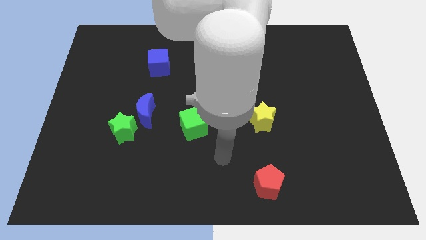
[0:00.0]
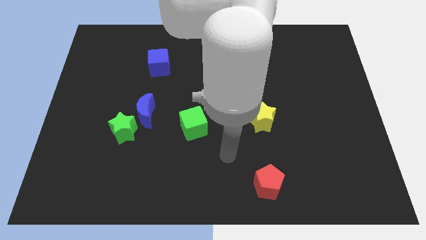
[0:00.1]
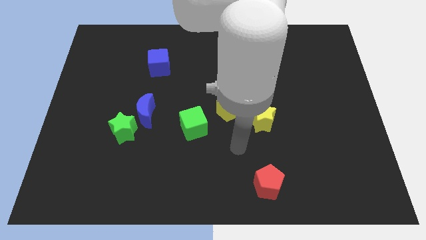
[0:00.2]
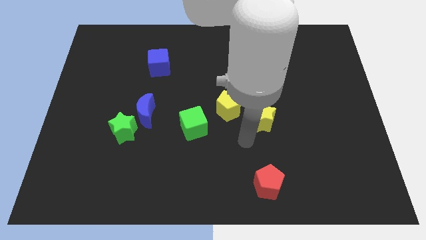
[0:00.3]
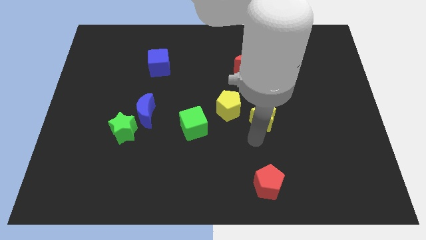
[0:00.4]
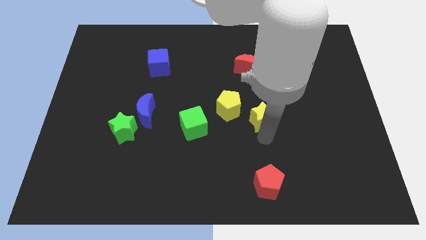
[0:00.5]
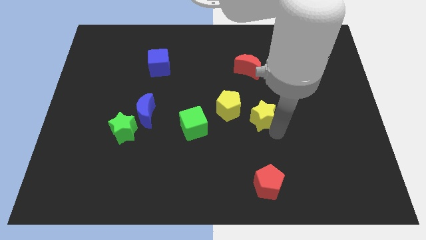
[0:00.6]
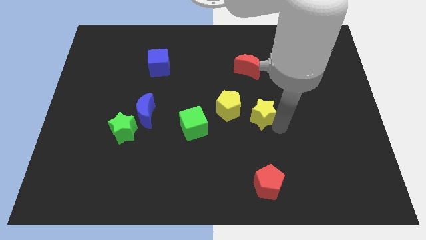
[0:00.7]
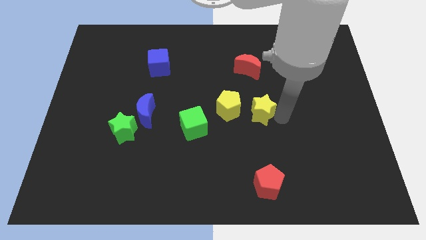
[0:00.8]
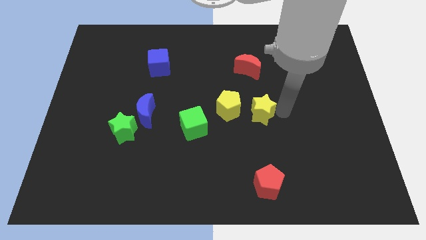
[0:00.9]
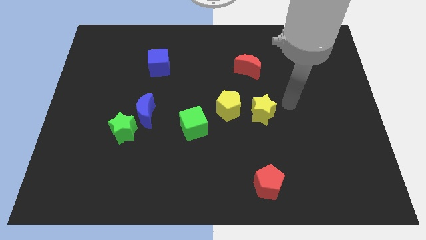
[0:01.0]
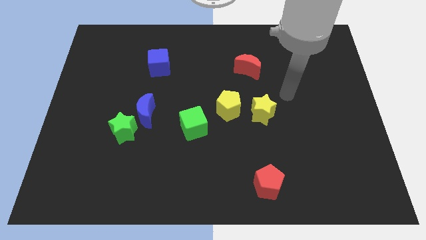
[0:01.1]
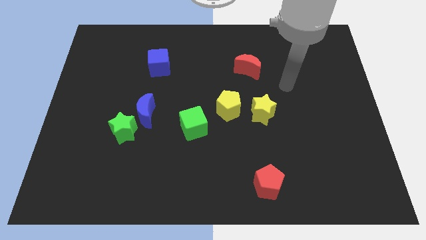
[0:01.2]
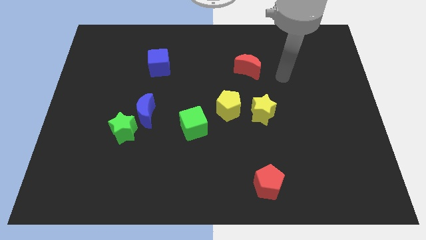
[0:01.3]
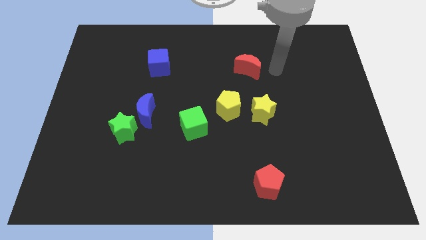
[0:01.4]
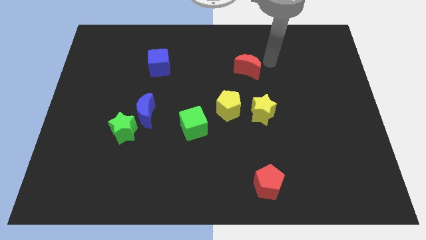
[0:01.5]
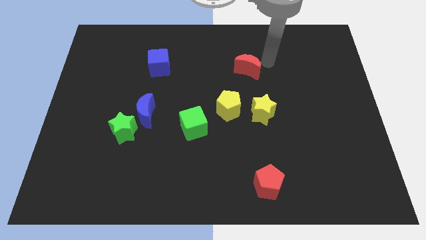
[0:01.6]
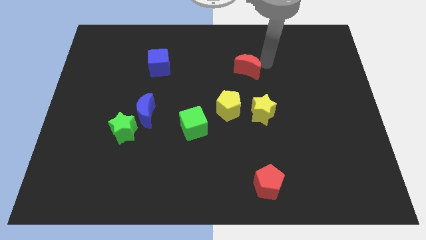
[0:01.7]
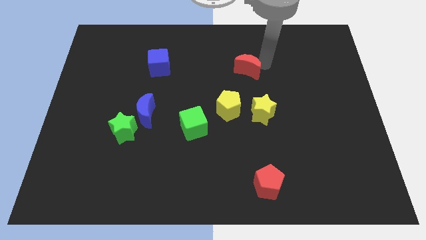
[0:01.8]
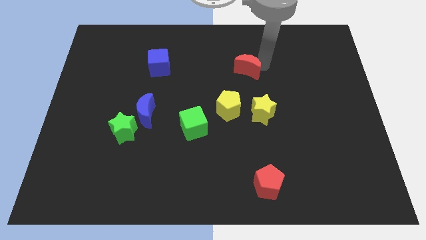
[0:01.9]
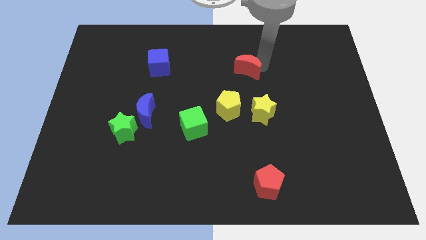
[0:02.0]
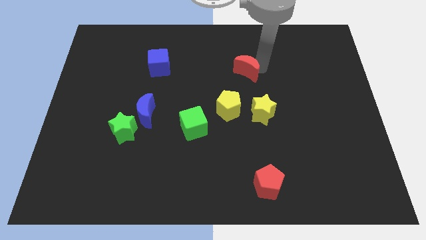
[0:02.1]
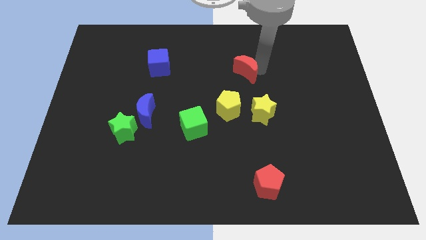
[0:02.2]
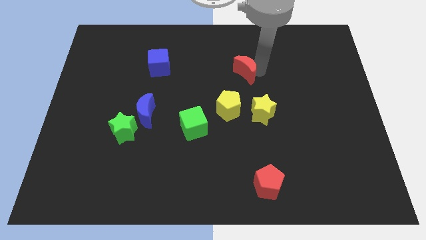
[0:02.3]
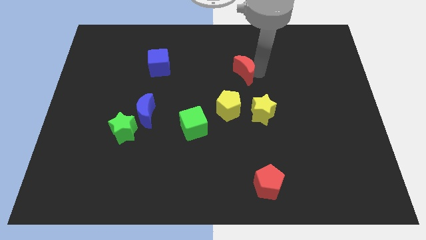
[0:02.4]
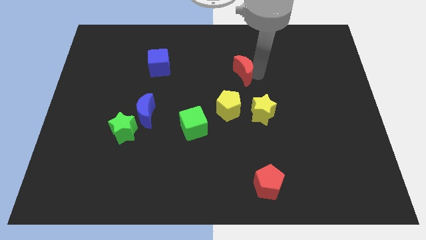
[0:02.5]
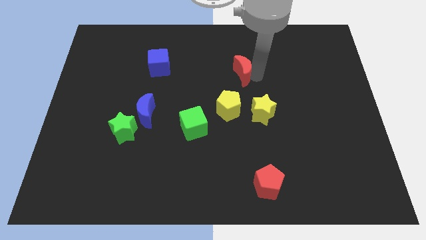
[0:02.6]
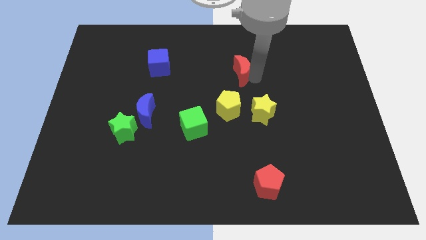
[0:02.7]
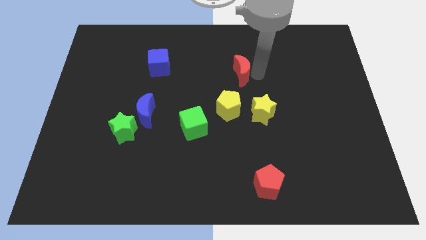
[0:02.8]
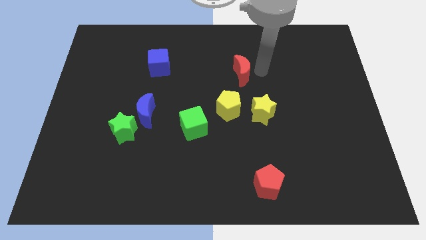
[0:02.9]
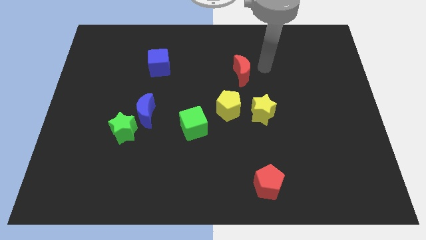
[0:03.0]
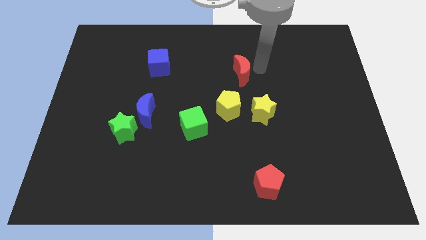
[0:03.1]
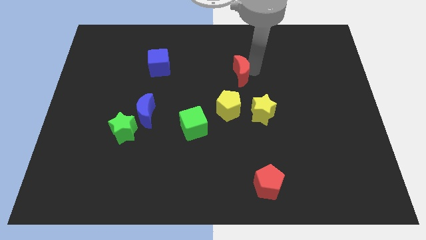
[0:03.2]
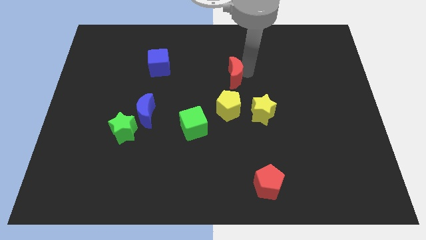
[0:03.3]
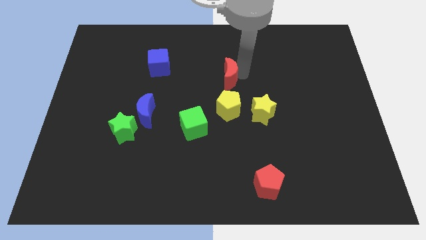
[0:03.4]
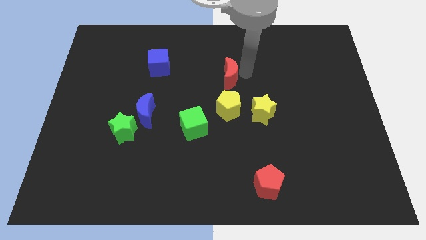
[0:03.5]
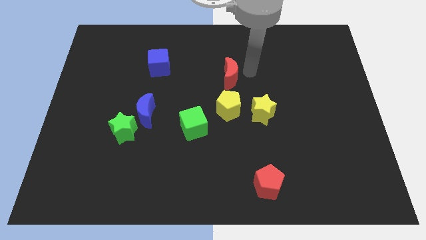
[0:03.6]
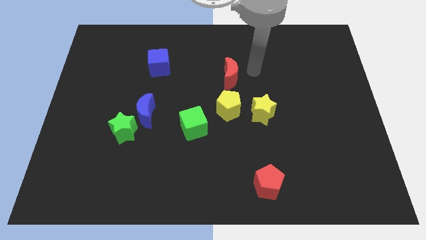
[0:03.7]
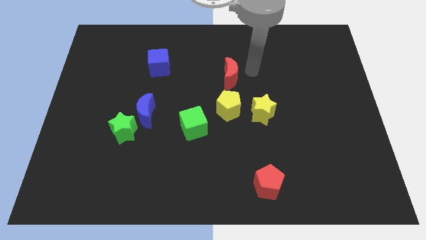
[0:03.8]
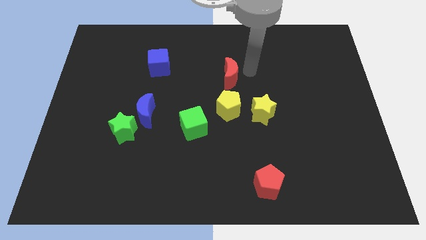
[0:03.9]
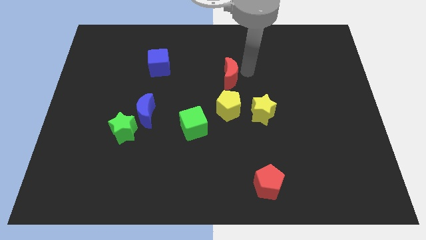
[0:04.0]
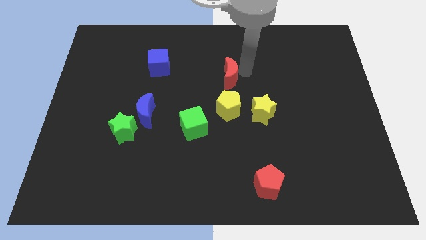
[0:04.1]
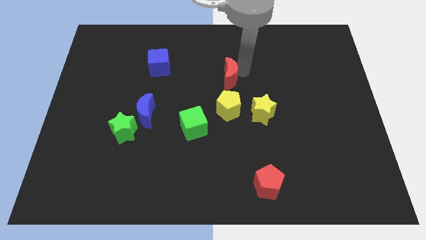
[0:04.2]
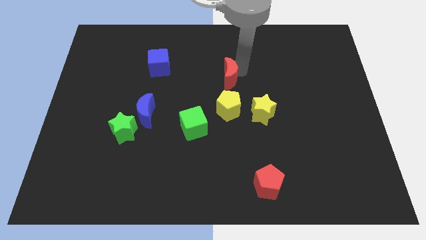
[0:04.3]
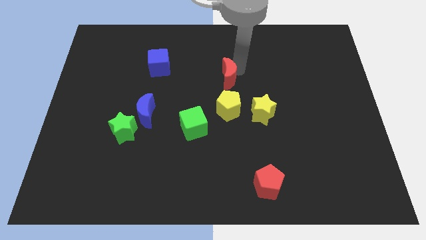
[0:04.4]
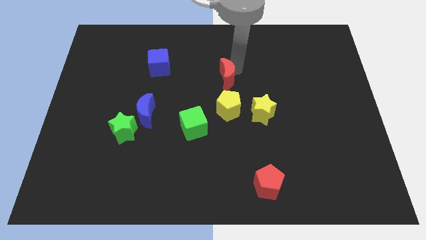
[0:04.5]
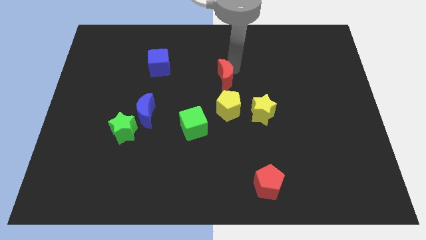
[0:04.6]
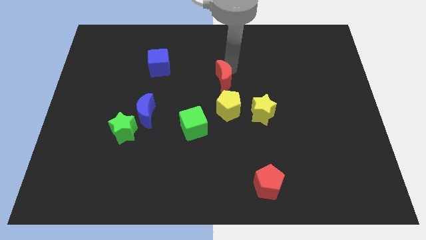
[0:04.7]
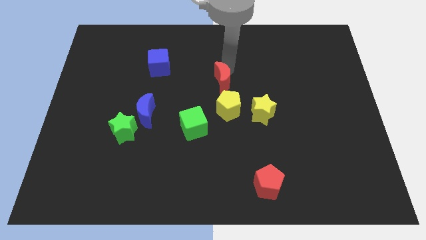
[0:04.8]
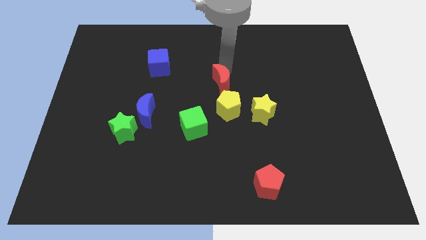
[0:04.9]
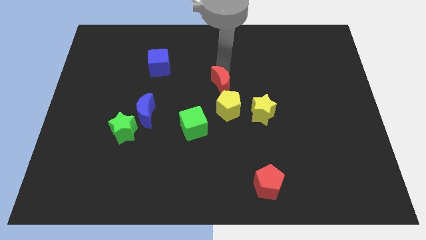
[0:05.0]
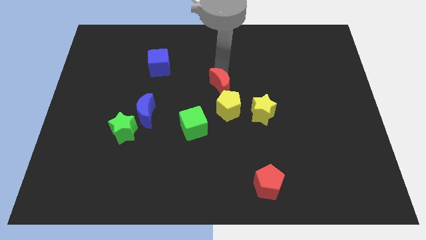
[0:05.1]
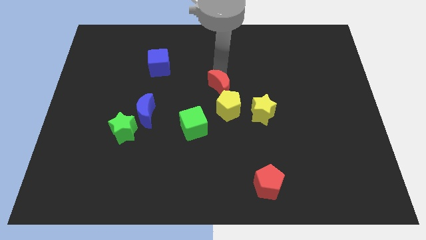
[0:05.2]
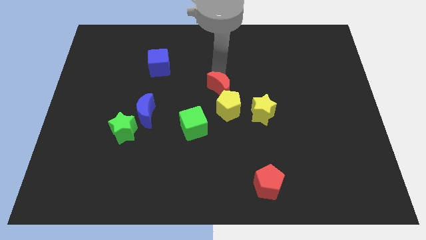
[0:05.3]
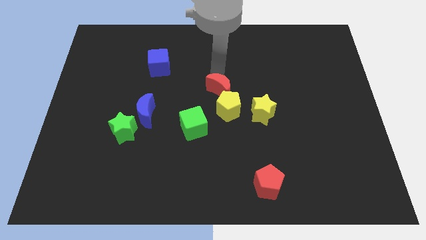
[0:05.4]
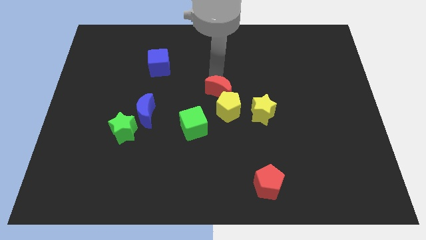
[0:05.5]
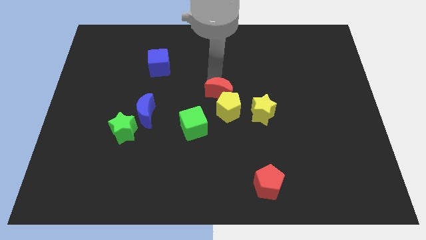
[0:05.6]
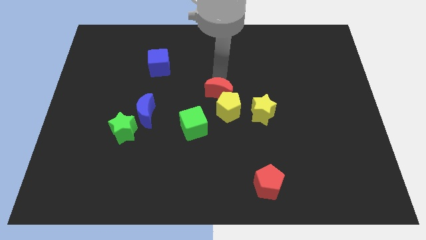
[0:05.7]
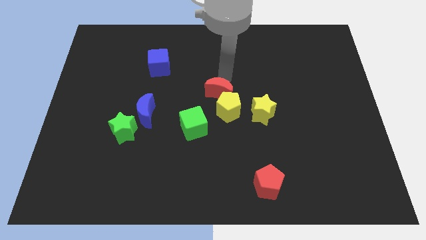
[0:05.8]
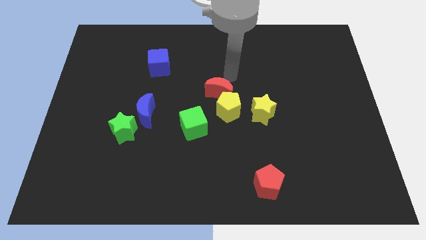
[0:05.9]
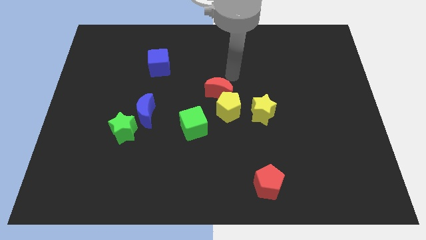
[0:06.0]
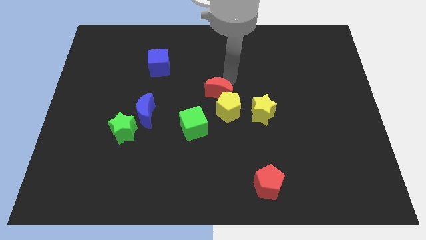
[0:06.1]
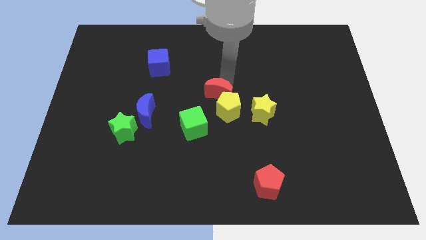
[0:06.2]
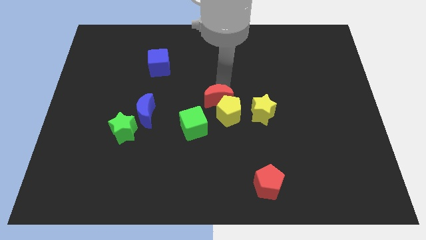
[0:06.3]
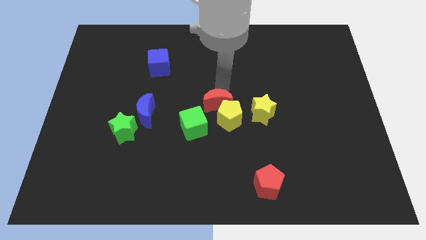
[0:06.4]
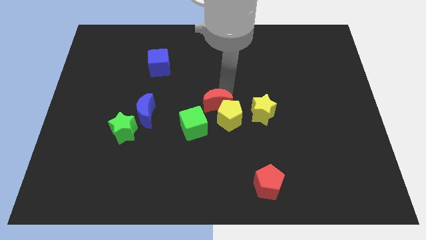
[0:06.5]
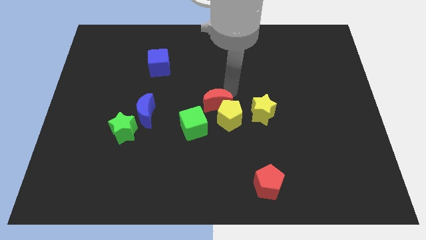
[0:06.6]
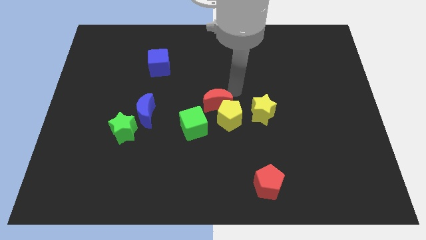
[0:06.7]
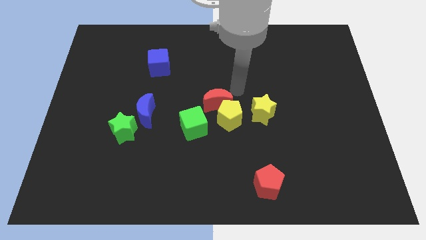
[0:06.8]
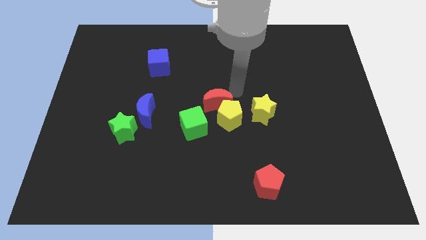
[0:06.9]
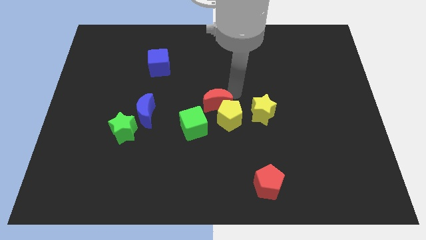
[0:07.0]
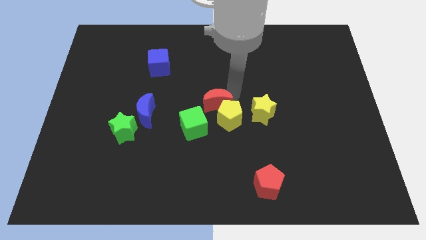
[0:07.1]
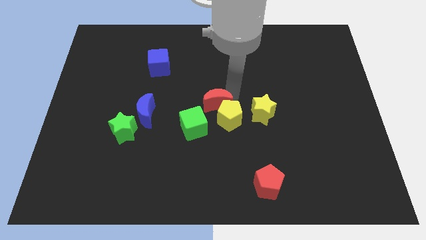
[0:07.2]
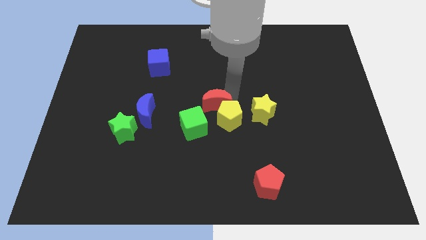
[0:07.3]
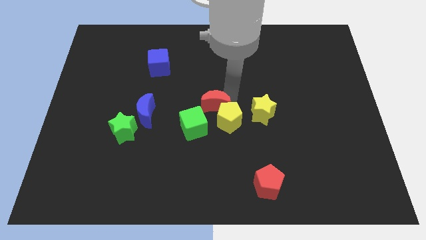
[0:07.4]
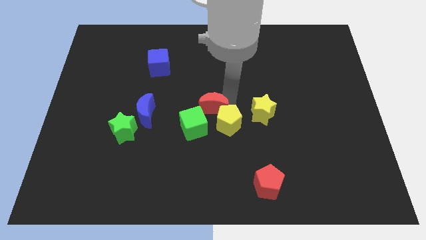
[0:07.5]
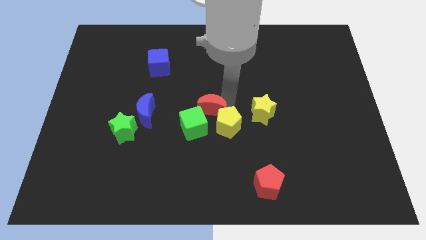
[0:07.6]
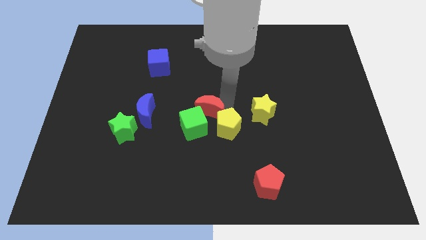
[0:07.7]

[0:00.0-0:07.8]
slide the red moon close to the green cube

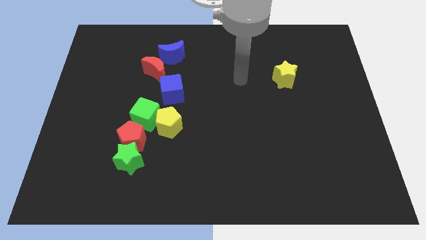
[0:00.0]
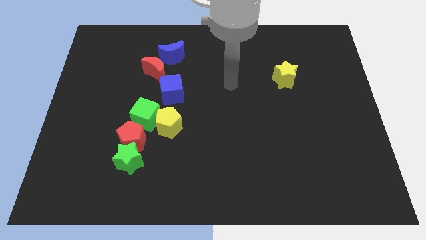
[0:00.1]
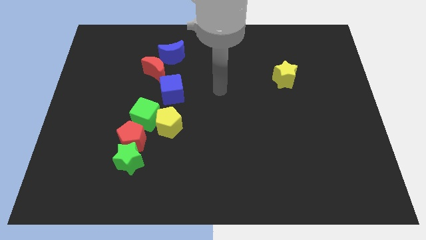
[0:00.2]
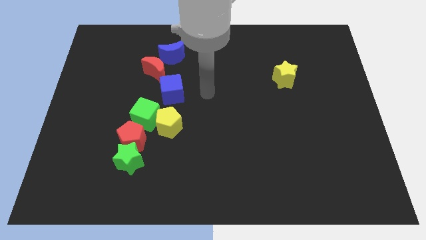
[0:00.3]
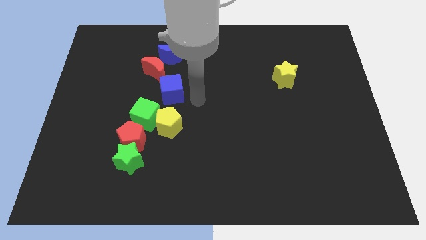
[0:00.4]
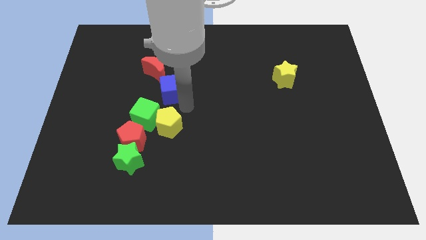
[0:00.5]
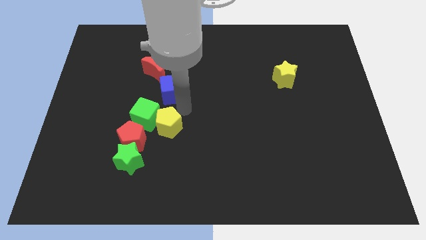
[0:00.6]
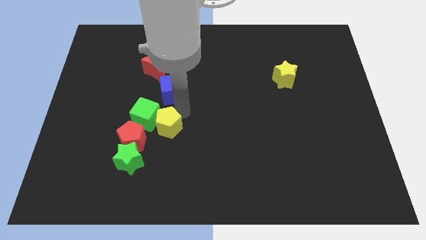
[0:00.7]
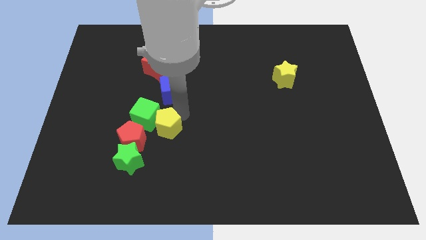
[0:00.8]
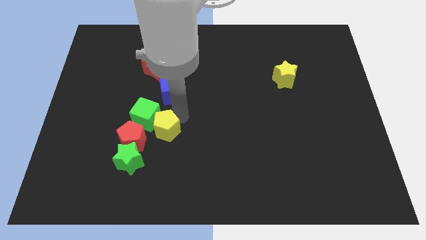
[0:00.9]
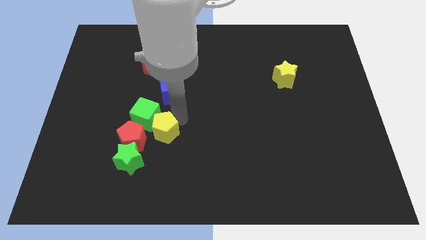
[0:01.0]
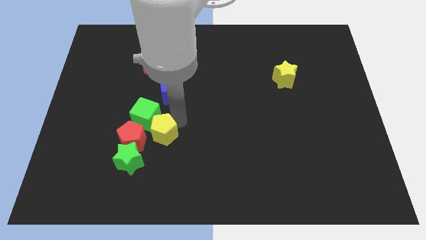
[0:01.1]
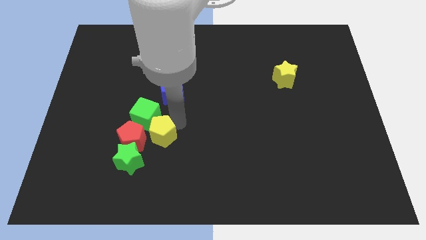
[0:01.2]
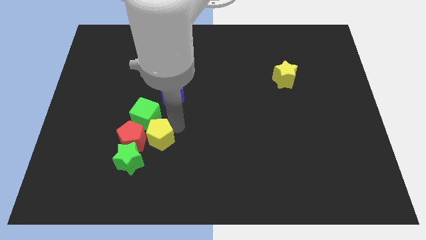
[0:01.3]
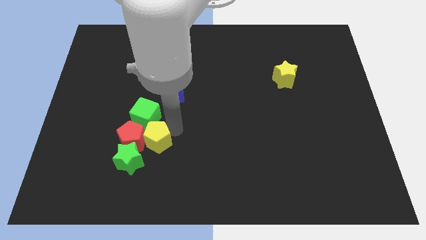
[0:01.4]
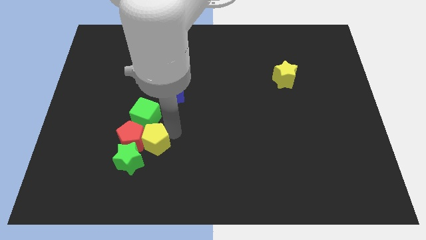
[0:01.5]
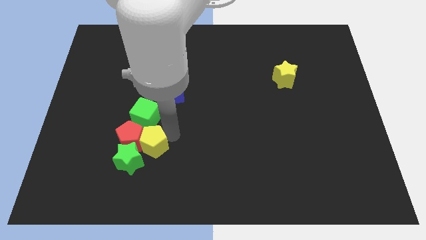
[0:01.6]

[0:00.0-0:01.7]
move the yellow pentagon towards the green star
